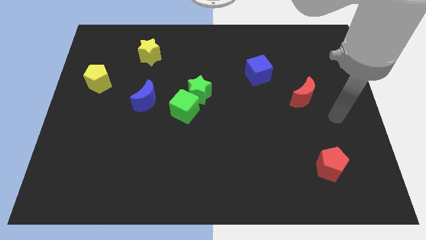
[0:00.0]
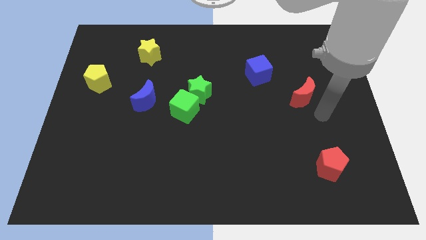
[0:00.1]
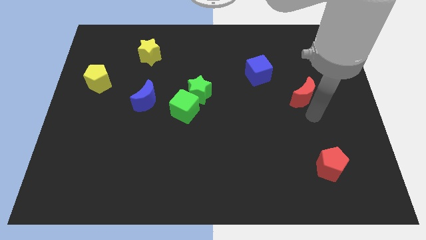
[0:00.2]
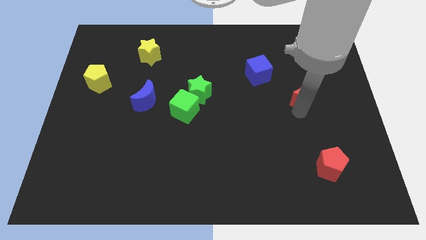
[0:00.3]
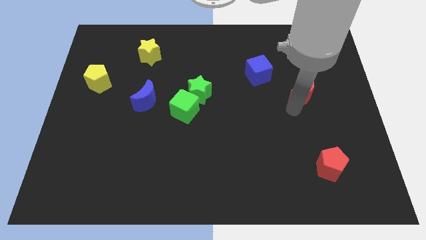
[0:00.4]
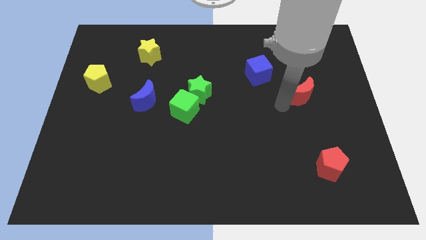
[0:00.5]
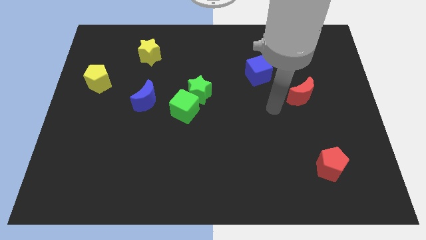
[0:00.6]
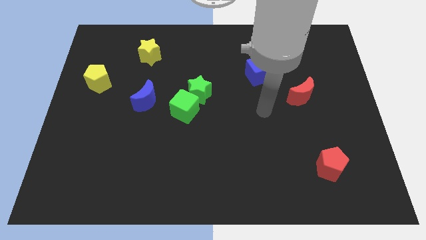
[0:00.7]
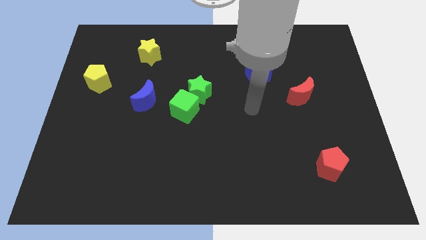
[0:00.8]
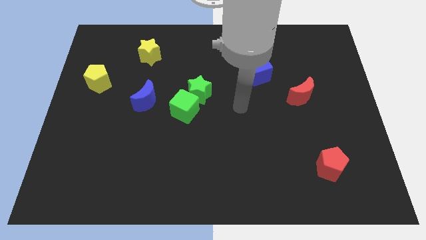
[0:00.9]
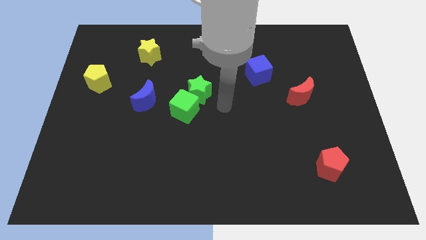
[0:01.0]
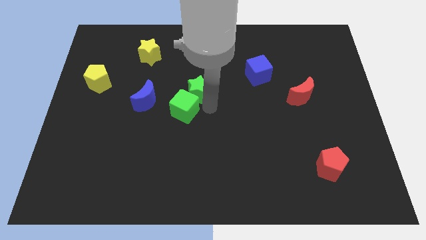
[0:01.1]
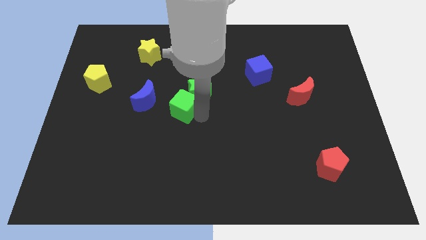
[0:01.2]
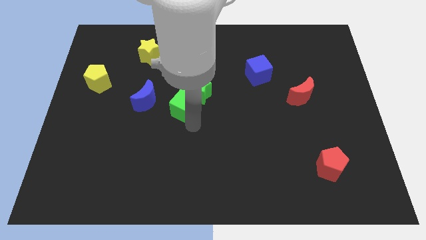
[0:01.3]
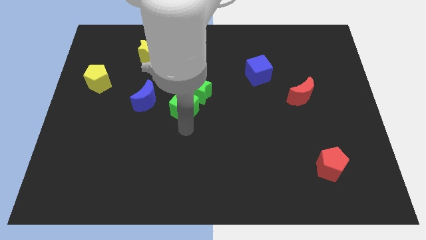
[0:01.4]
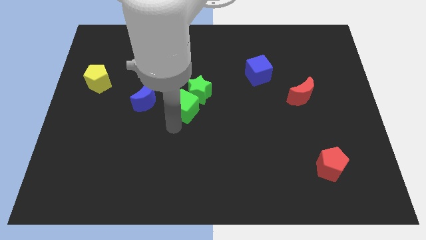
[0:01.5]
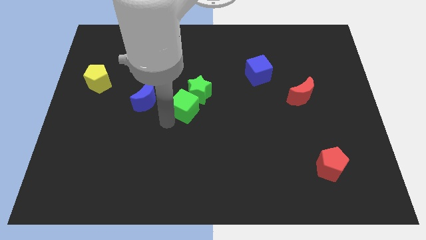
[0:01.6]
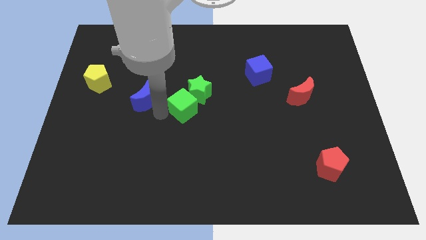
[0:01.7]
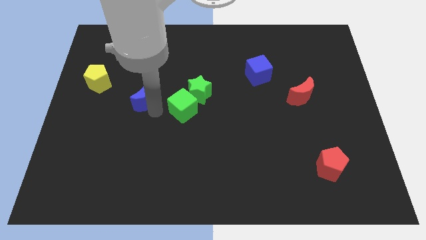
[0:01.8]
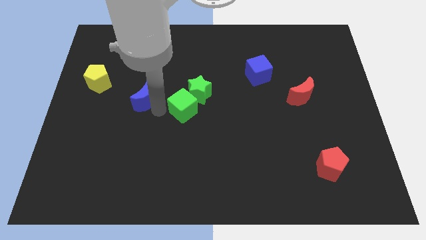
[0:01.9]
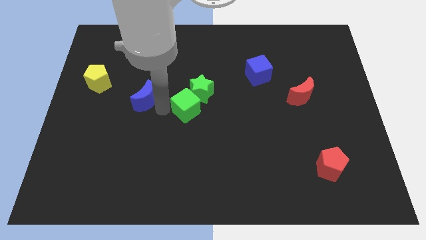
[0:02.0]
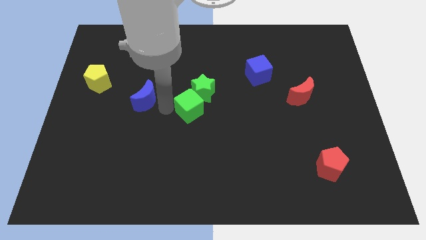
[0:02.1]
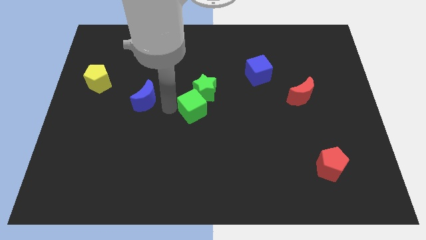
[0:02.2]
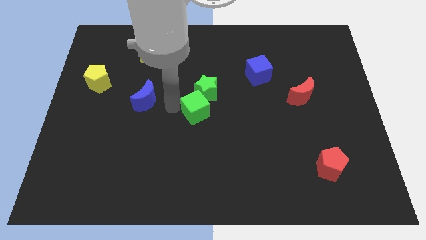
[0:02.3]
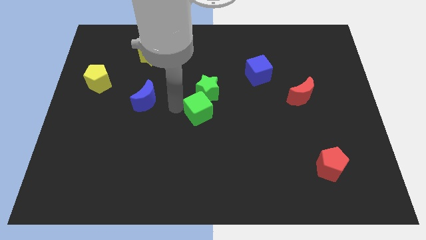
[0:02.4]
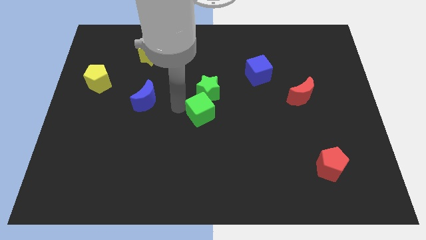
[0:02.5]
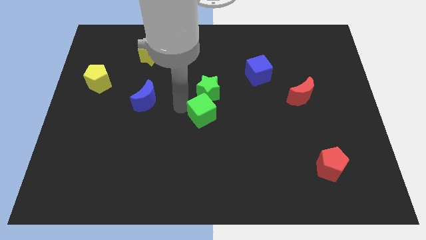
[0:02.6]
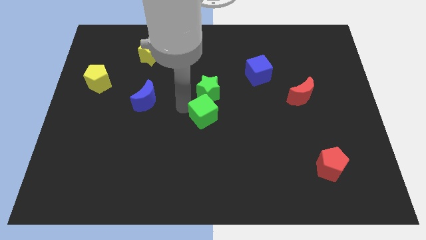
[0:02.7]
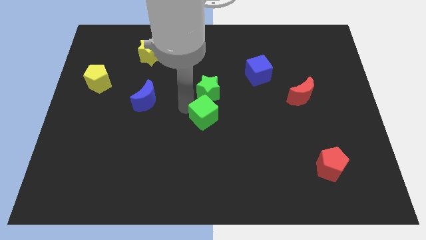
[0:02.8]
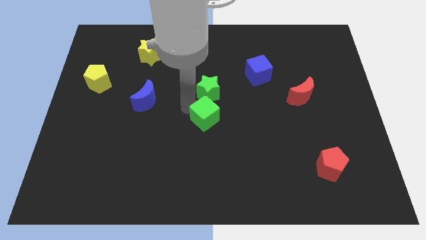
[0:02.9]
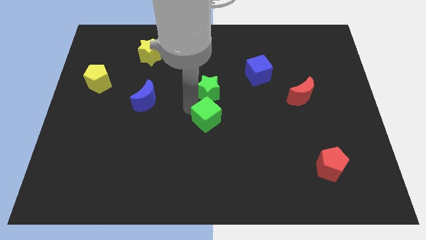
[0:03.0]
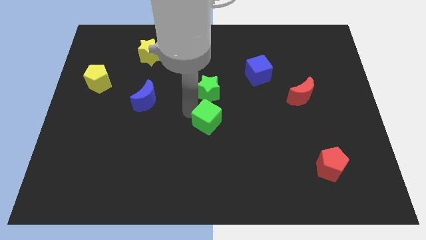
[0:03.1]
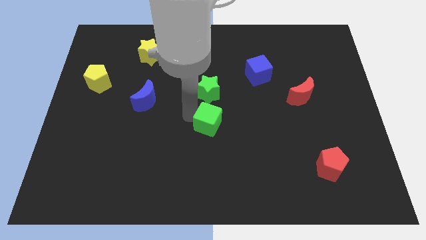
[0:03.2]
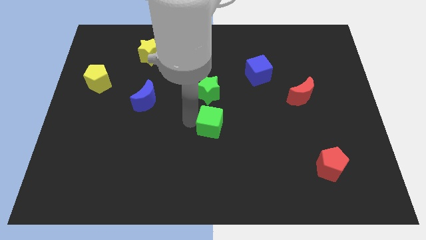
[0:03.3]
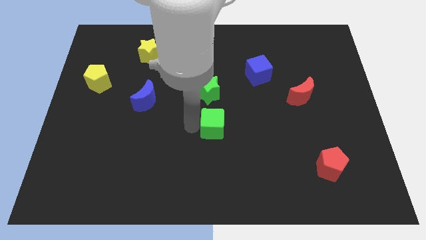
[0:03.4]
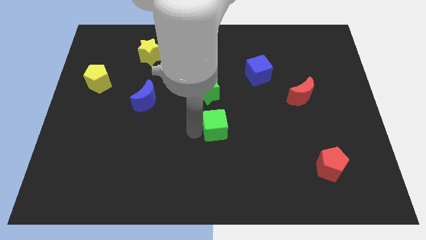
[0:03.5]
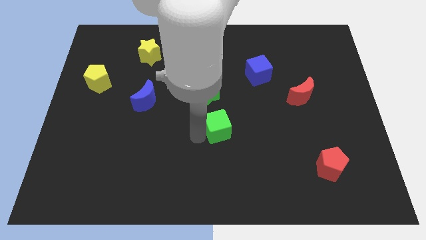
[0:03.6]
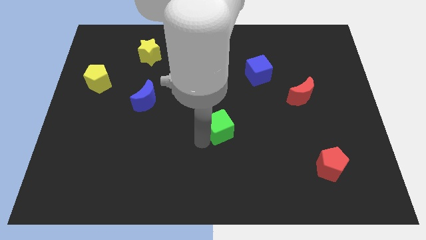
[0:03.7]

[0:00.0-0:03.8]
slide the green cube a little bit right

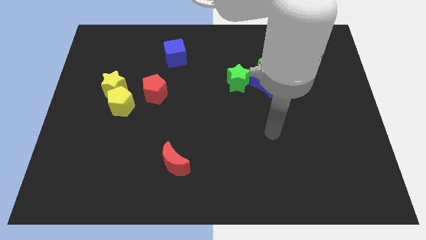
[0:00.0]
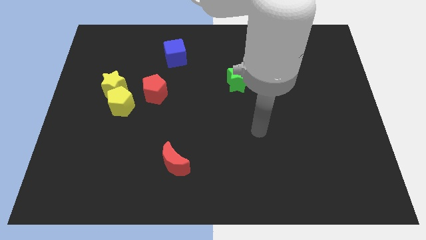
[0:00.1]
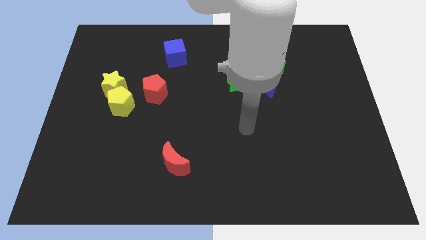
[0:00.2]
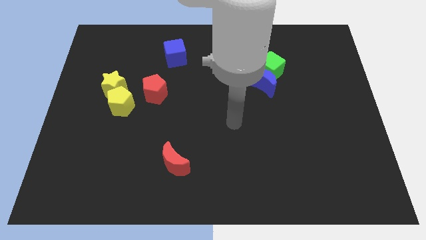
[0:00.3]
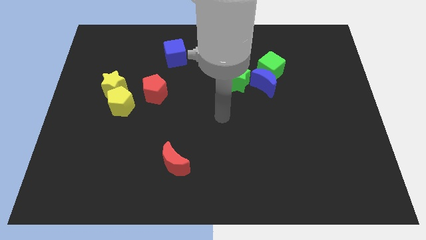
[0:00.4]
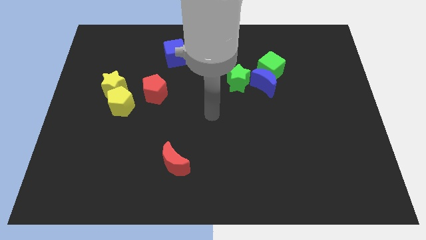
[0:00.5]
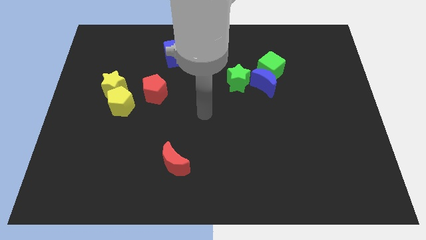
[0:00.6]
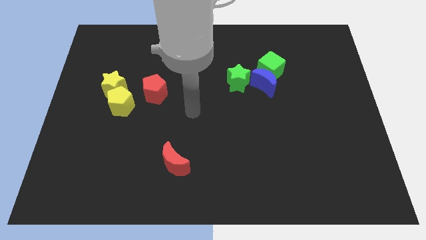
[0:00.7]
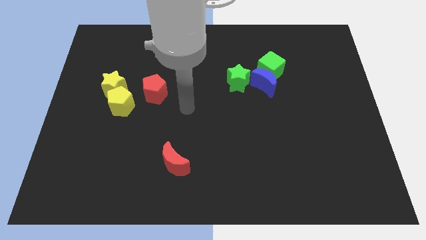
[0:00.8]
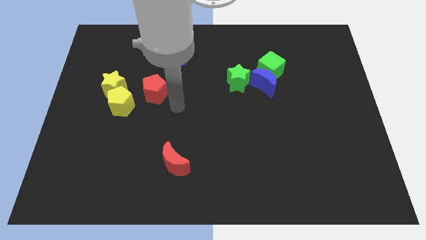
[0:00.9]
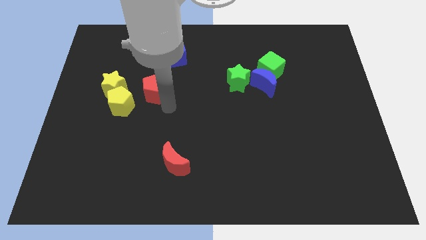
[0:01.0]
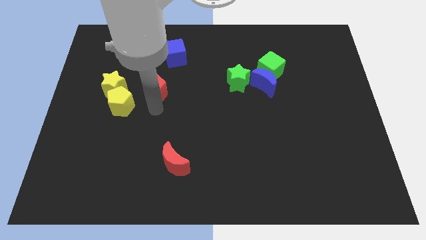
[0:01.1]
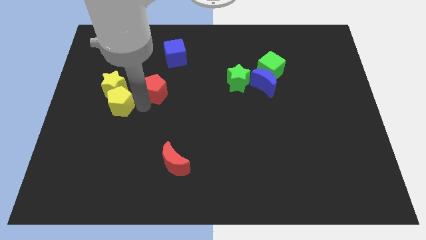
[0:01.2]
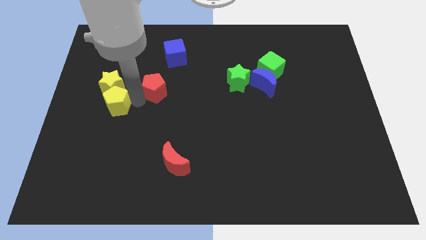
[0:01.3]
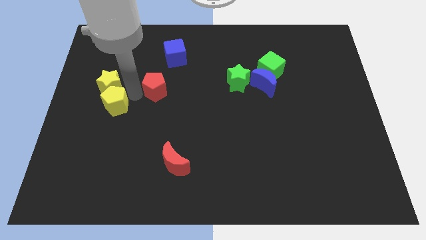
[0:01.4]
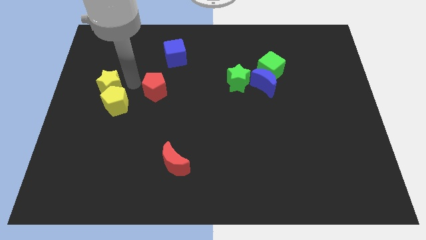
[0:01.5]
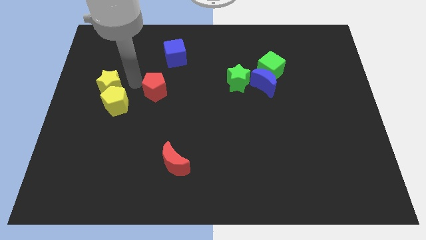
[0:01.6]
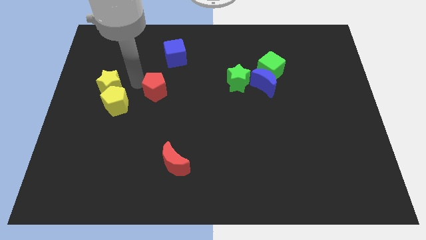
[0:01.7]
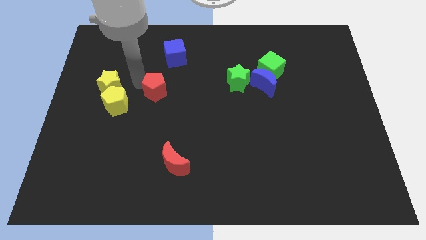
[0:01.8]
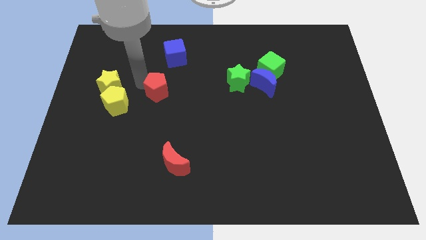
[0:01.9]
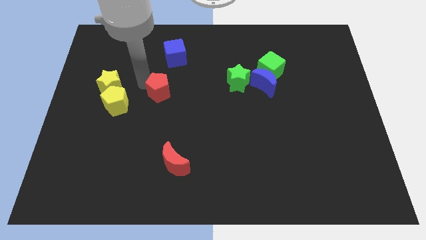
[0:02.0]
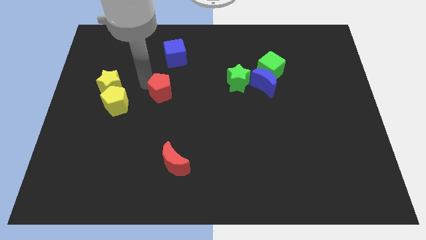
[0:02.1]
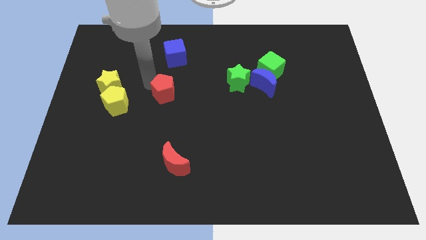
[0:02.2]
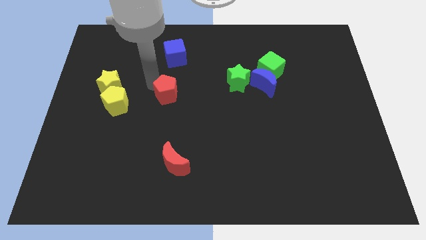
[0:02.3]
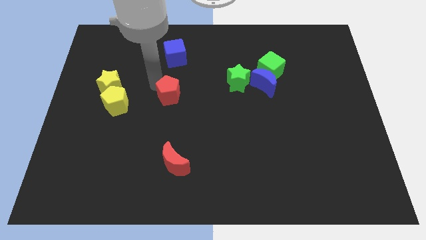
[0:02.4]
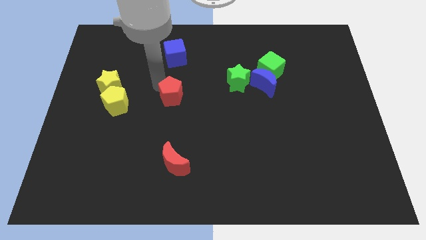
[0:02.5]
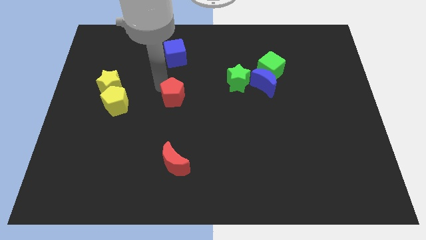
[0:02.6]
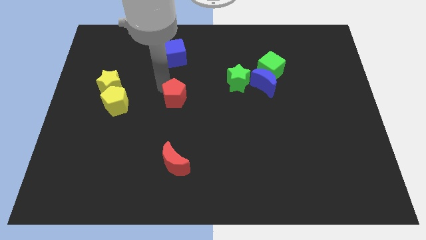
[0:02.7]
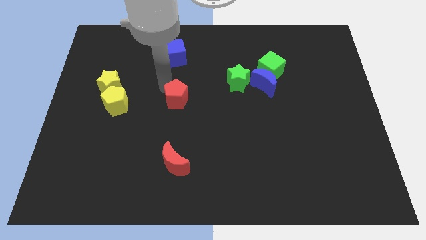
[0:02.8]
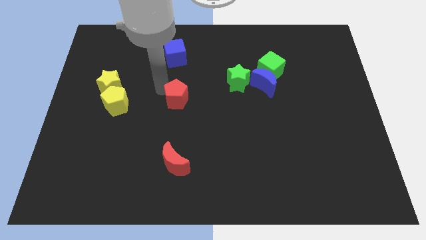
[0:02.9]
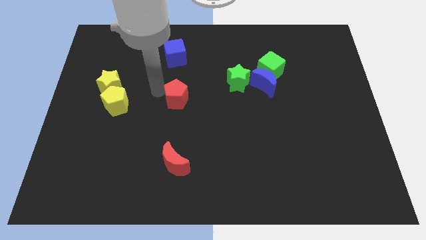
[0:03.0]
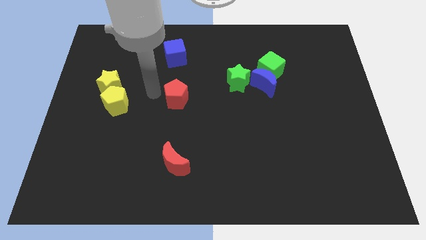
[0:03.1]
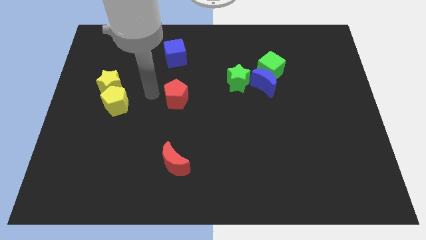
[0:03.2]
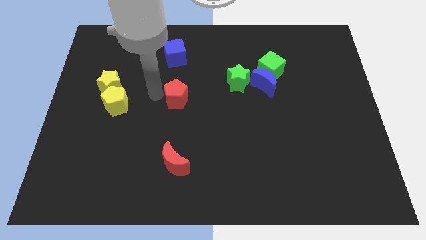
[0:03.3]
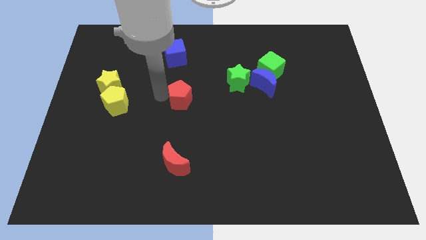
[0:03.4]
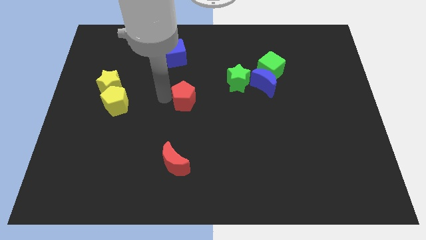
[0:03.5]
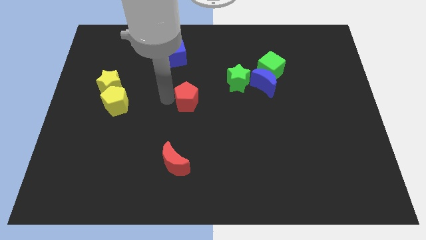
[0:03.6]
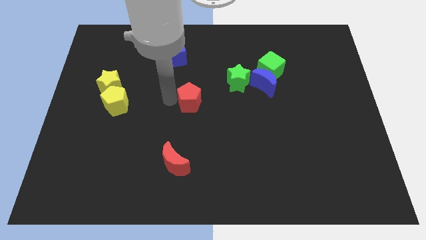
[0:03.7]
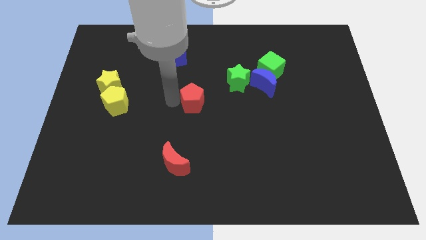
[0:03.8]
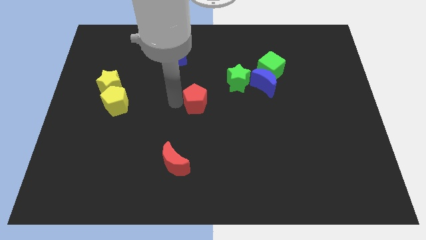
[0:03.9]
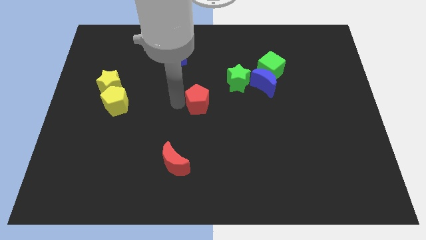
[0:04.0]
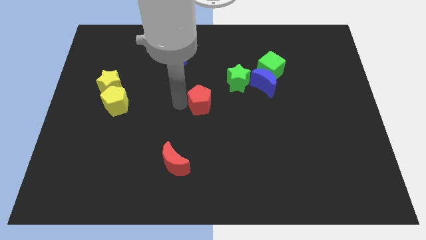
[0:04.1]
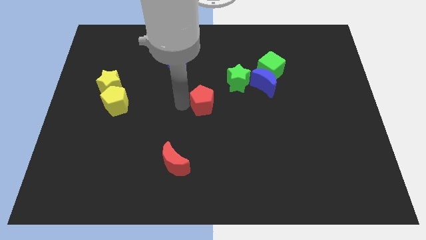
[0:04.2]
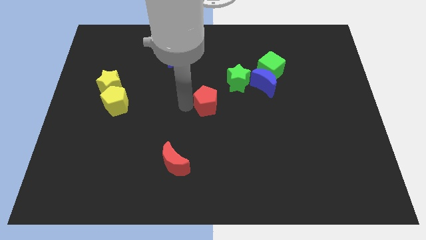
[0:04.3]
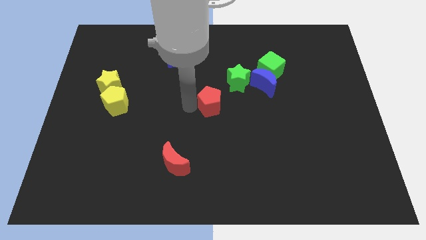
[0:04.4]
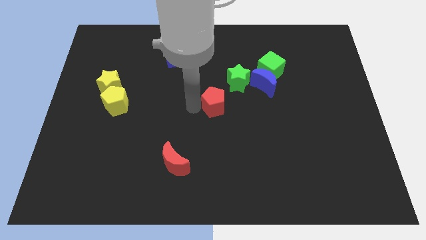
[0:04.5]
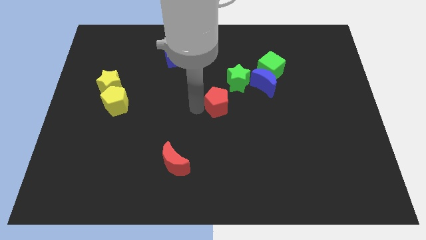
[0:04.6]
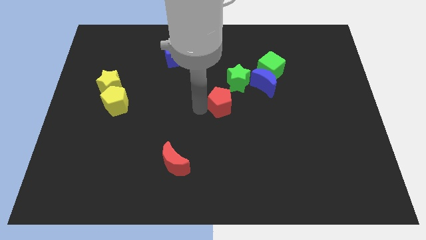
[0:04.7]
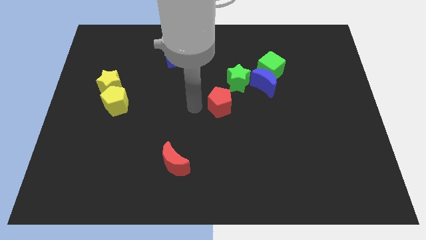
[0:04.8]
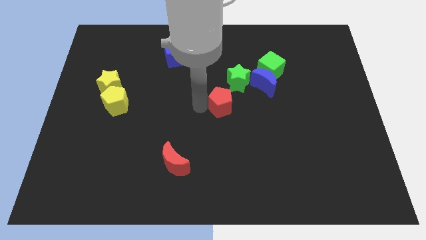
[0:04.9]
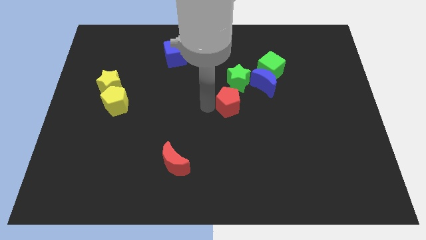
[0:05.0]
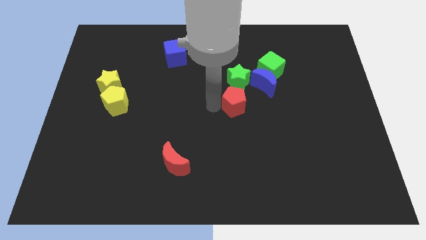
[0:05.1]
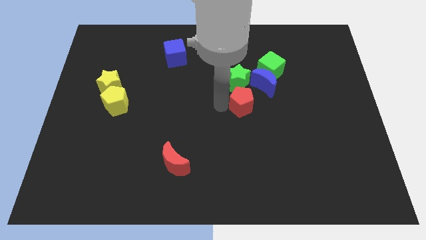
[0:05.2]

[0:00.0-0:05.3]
slide the red pentagon right
